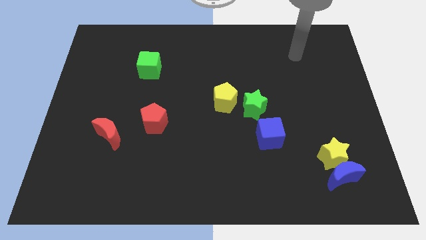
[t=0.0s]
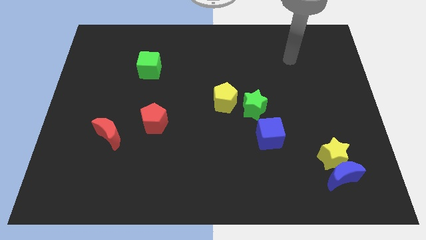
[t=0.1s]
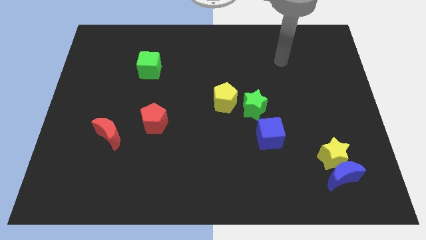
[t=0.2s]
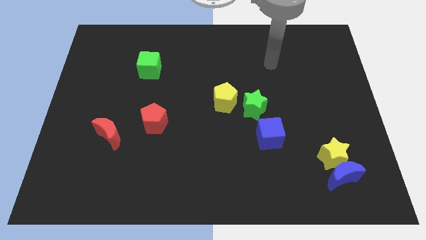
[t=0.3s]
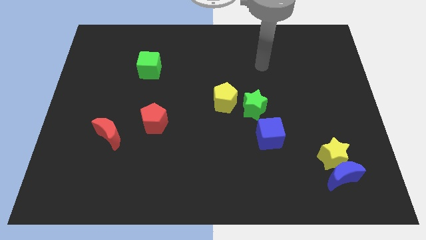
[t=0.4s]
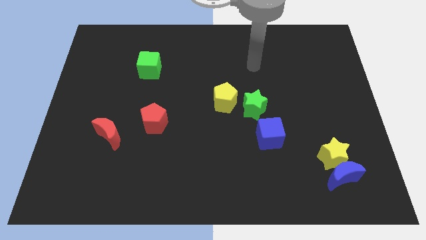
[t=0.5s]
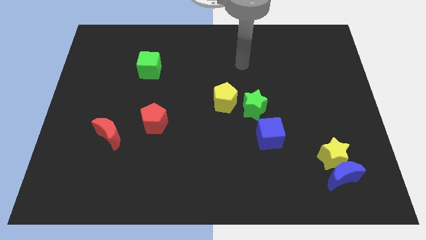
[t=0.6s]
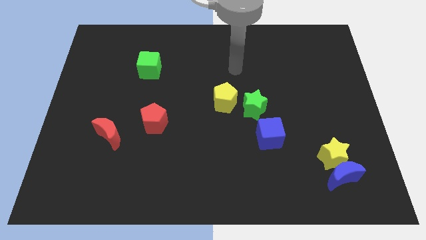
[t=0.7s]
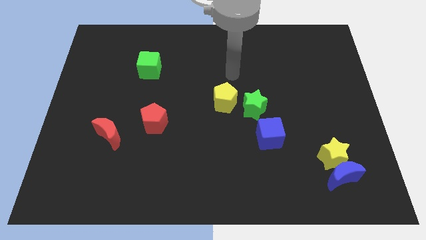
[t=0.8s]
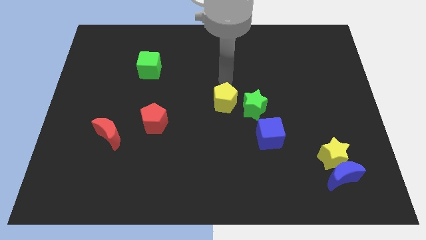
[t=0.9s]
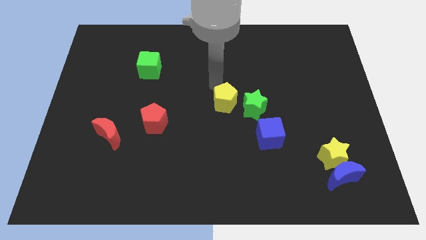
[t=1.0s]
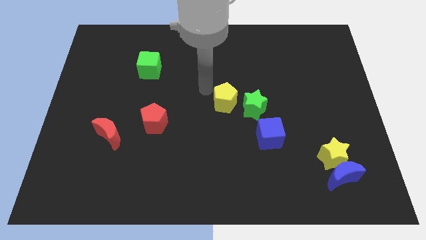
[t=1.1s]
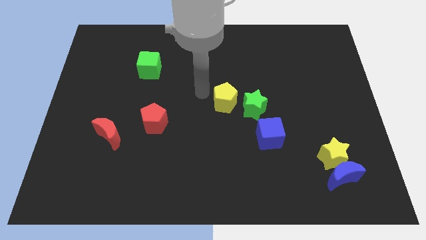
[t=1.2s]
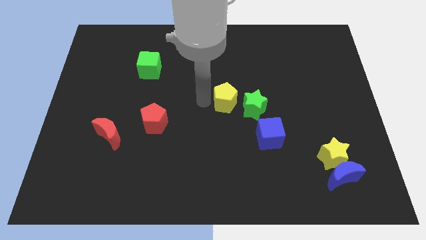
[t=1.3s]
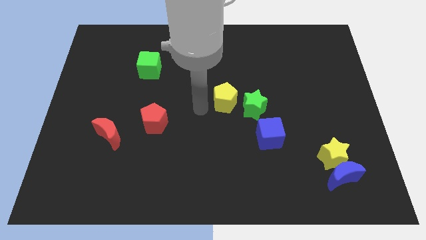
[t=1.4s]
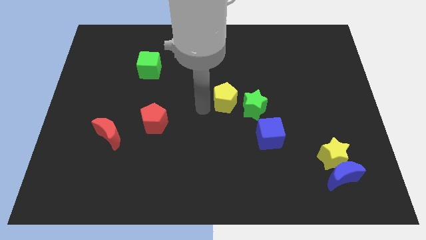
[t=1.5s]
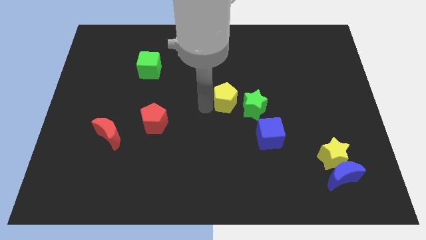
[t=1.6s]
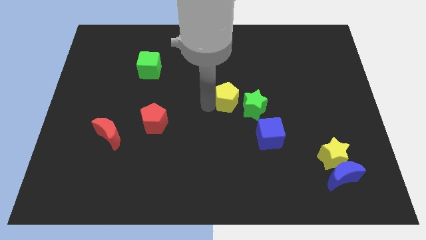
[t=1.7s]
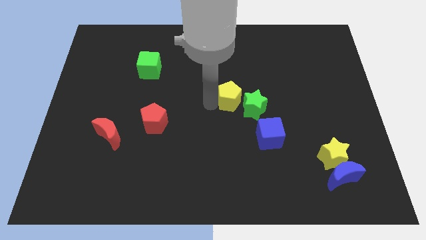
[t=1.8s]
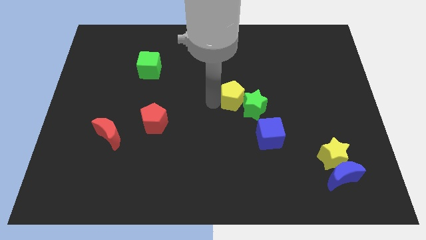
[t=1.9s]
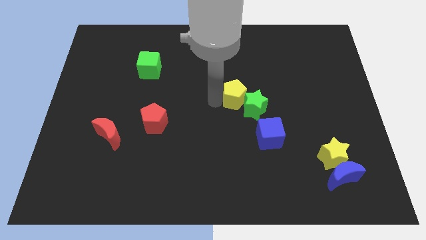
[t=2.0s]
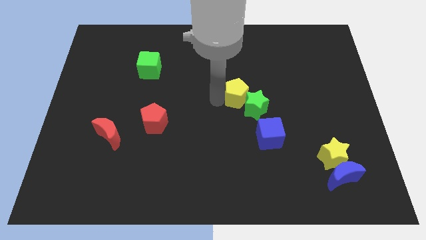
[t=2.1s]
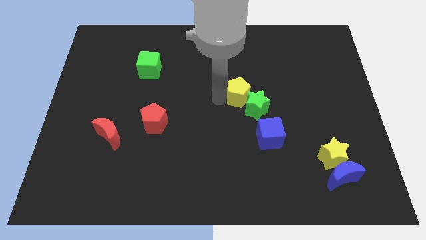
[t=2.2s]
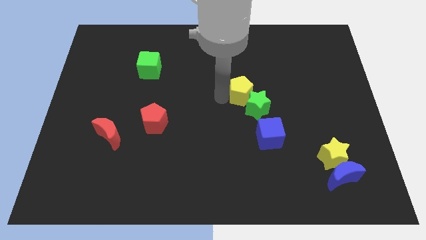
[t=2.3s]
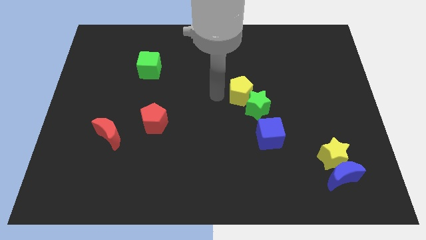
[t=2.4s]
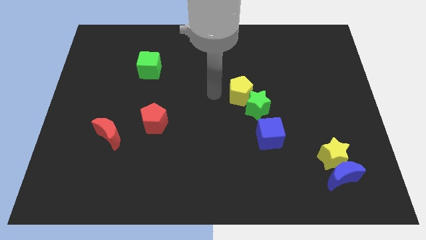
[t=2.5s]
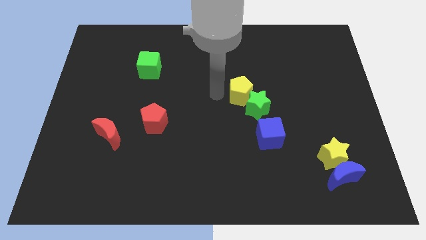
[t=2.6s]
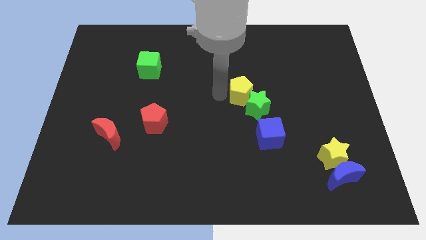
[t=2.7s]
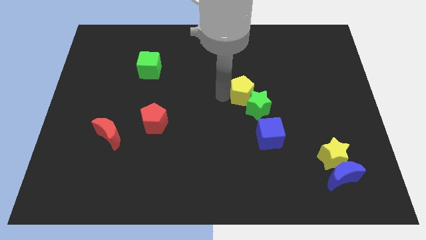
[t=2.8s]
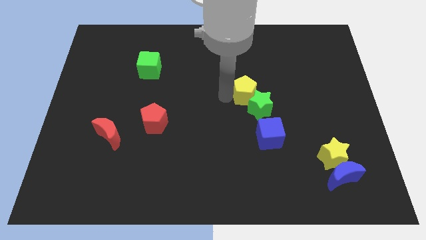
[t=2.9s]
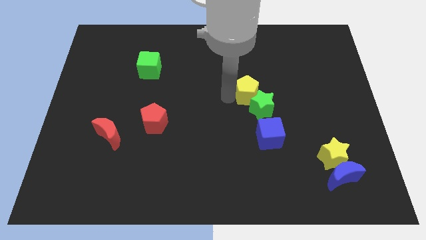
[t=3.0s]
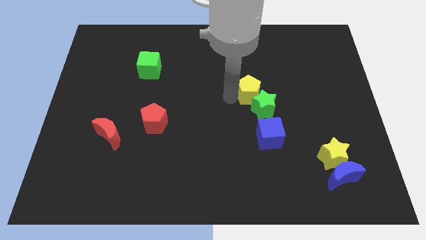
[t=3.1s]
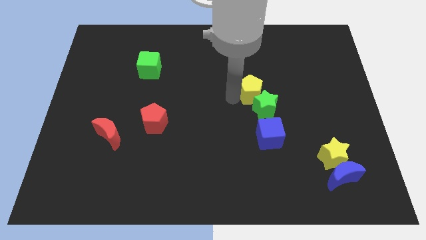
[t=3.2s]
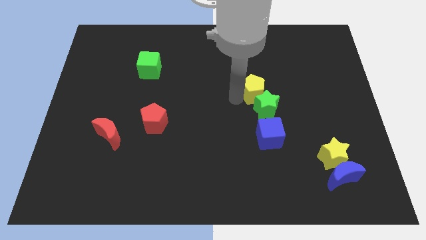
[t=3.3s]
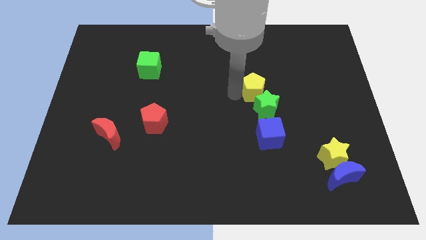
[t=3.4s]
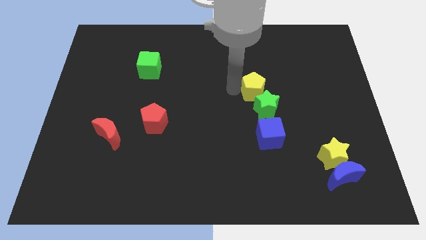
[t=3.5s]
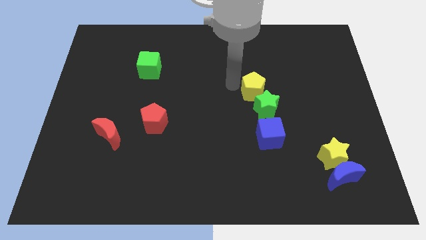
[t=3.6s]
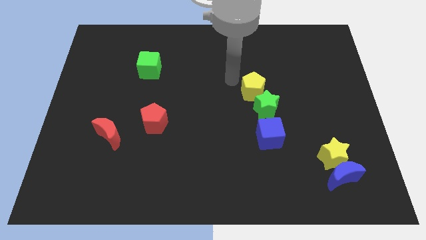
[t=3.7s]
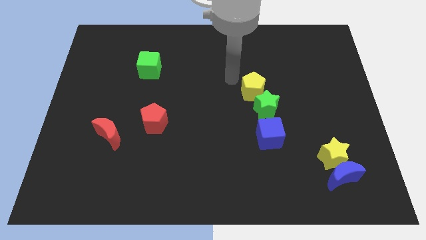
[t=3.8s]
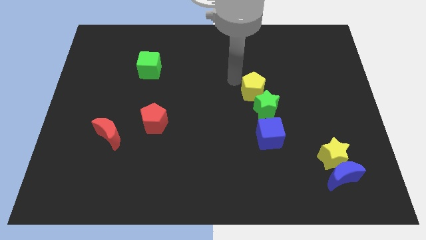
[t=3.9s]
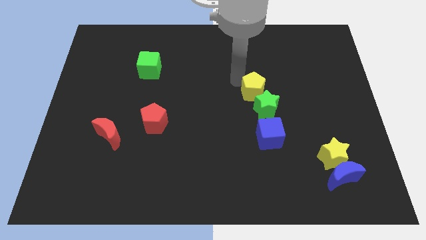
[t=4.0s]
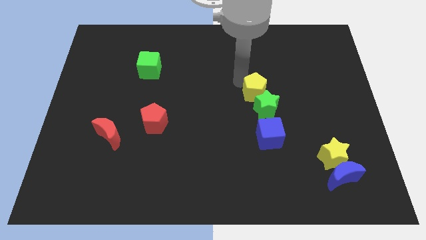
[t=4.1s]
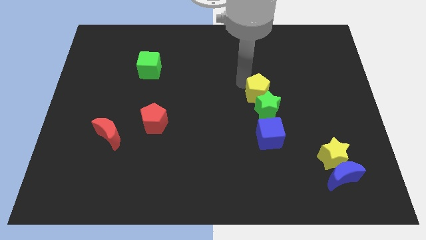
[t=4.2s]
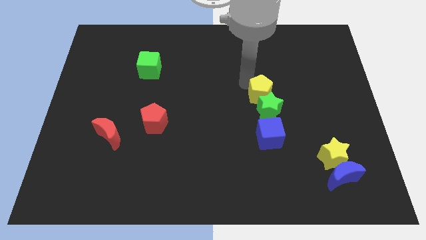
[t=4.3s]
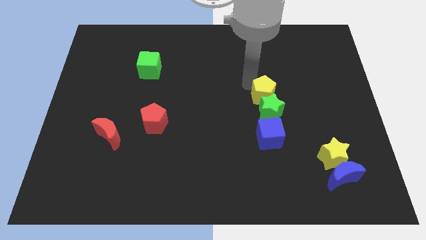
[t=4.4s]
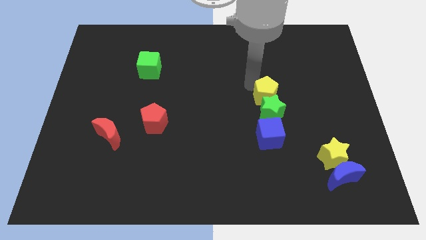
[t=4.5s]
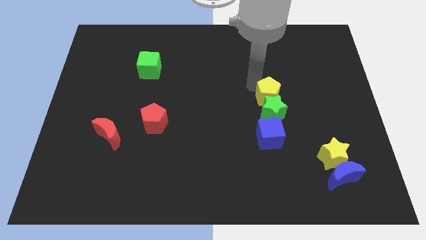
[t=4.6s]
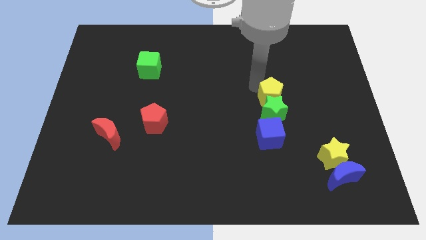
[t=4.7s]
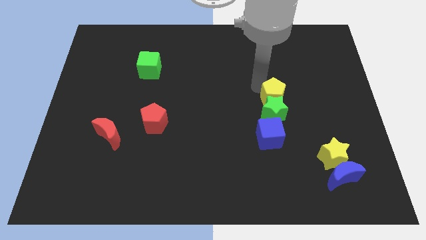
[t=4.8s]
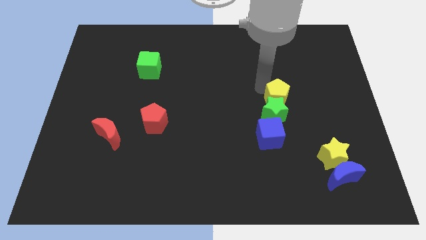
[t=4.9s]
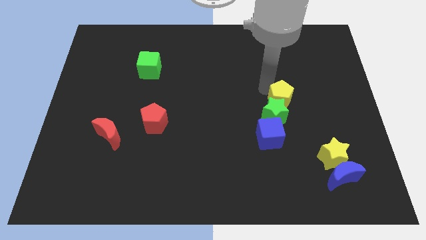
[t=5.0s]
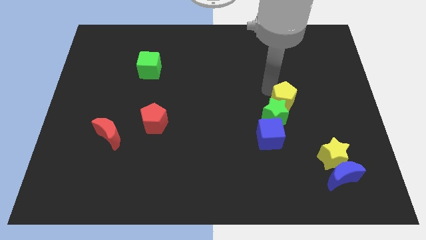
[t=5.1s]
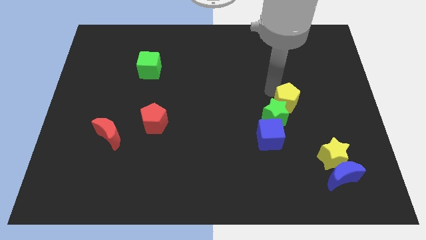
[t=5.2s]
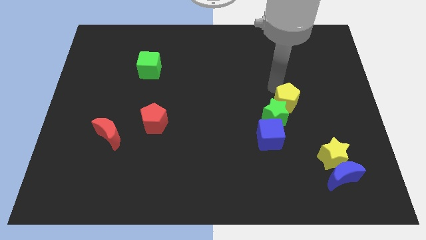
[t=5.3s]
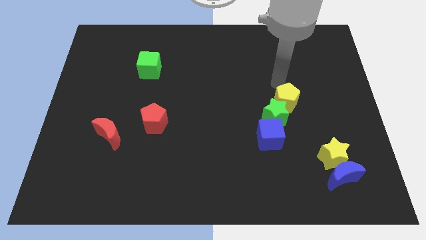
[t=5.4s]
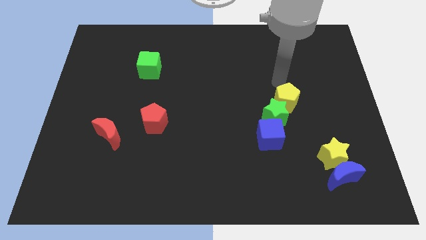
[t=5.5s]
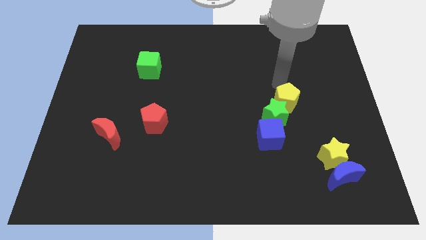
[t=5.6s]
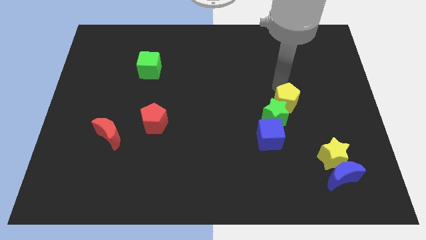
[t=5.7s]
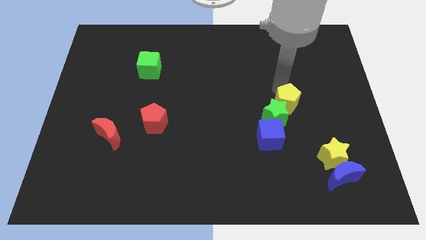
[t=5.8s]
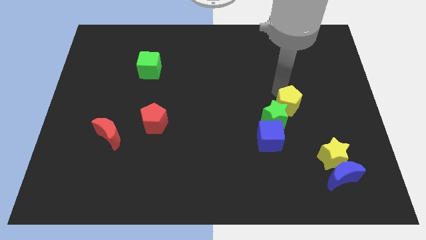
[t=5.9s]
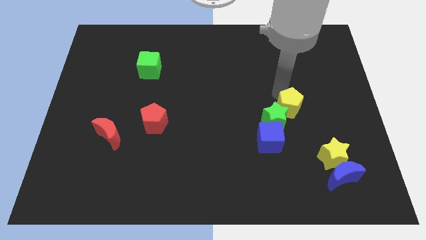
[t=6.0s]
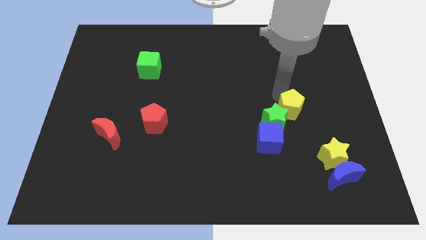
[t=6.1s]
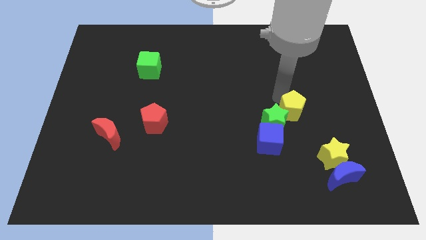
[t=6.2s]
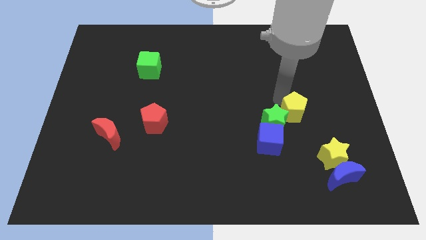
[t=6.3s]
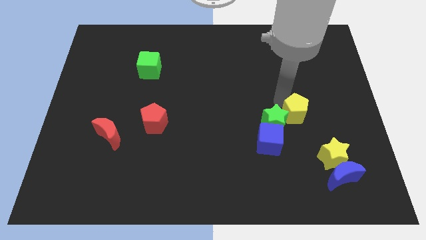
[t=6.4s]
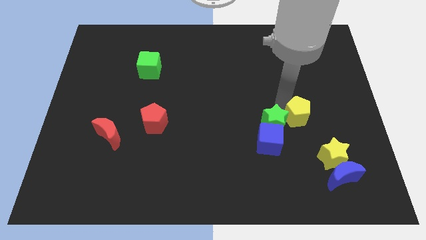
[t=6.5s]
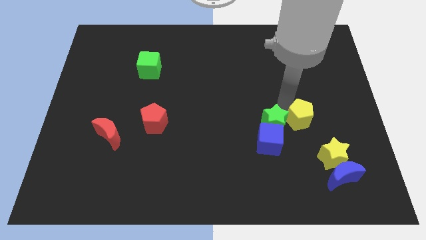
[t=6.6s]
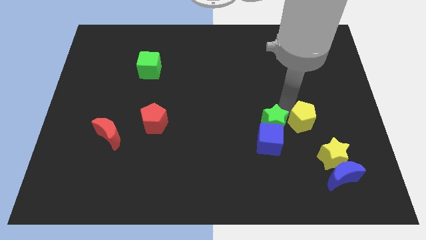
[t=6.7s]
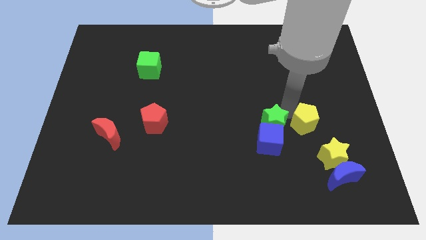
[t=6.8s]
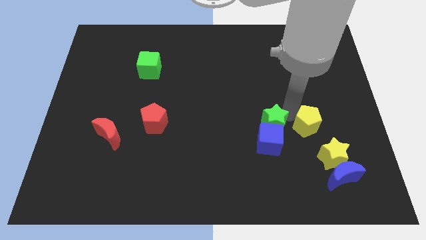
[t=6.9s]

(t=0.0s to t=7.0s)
move the yellow pentagon to the right of the blue cube

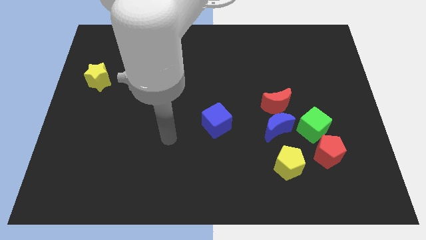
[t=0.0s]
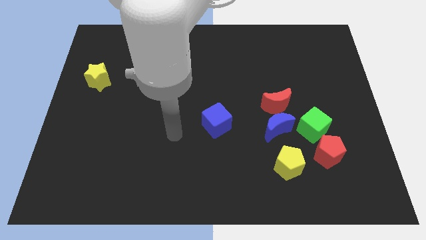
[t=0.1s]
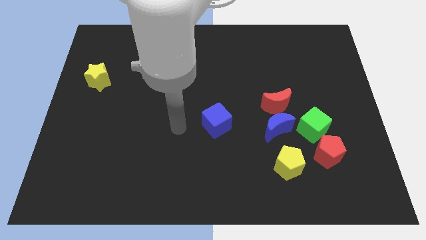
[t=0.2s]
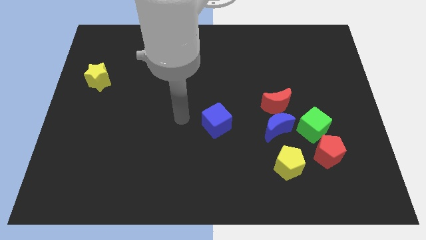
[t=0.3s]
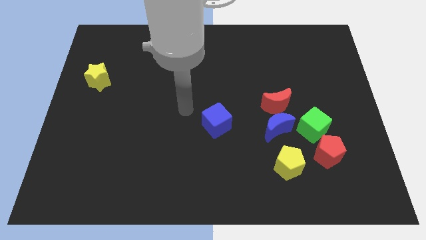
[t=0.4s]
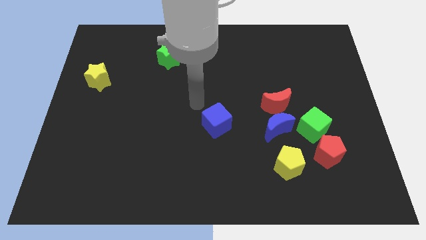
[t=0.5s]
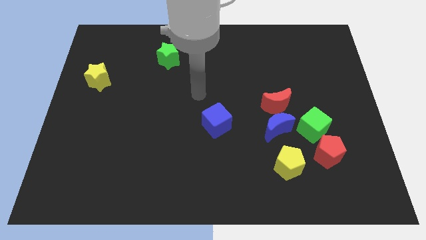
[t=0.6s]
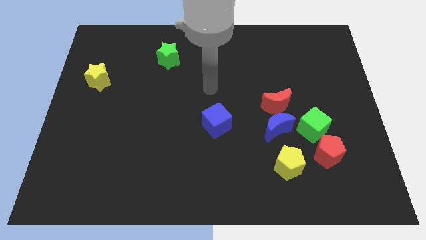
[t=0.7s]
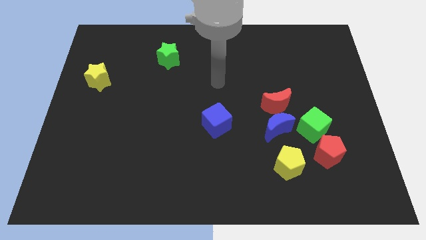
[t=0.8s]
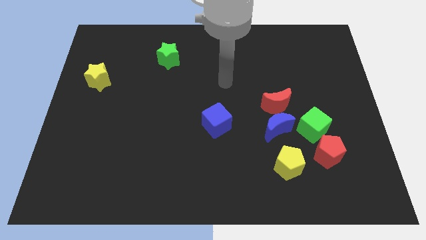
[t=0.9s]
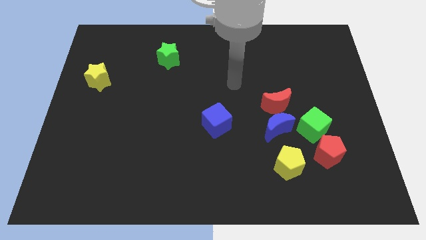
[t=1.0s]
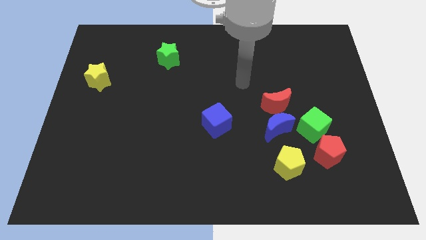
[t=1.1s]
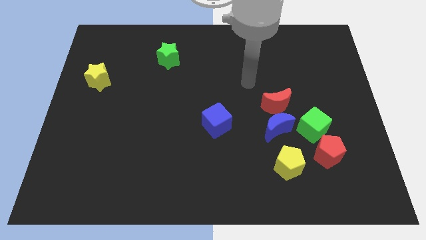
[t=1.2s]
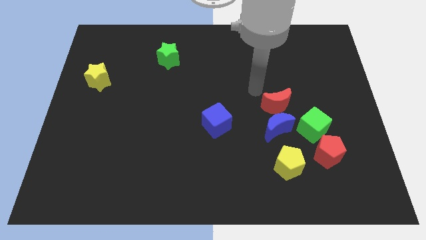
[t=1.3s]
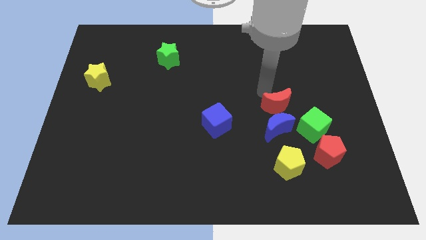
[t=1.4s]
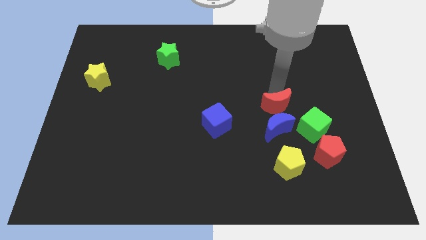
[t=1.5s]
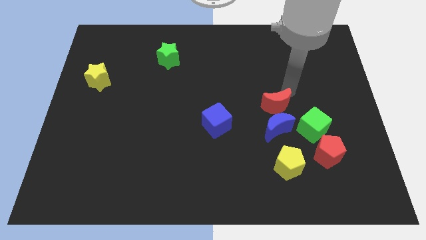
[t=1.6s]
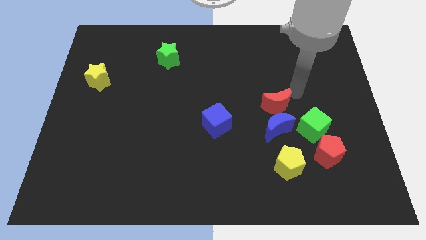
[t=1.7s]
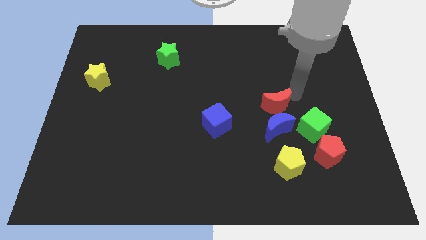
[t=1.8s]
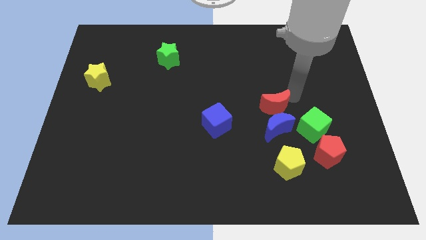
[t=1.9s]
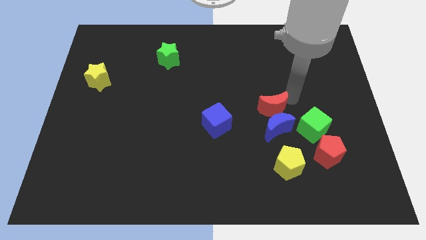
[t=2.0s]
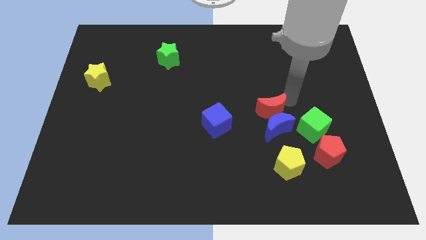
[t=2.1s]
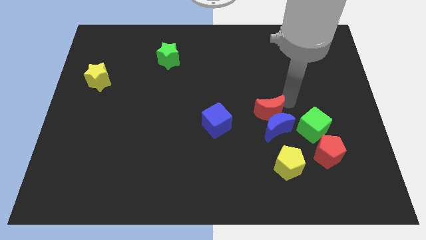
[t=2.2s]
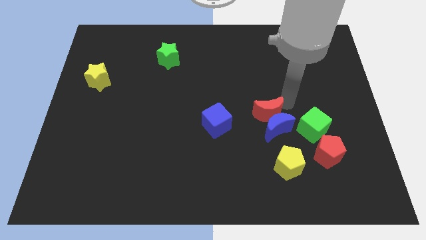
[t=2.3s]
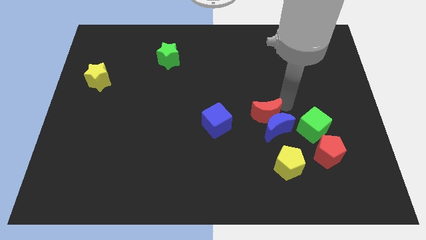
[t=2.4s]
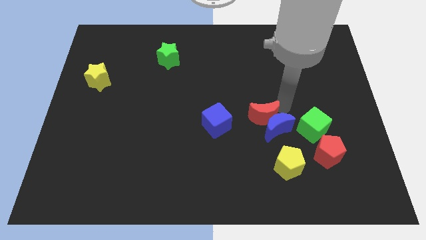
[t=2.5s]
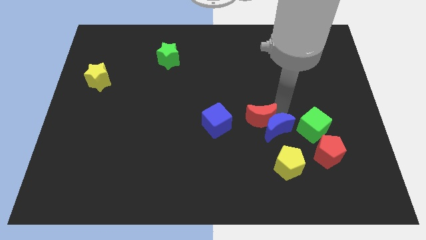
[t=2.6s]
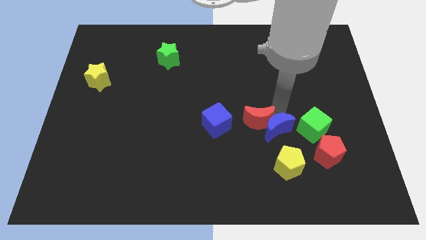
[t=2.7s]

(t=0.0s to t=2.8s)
move the red moon to the bottom left side of the blue moon
